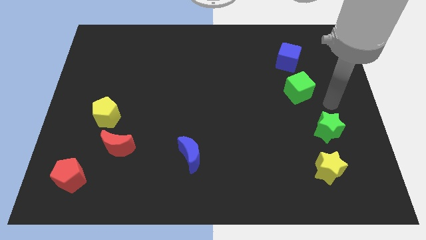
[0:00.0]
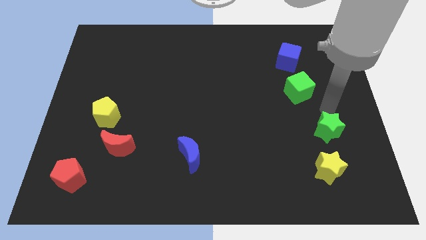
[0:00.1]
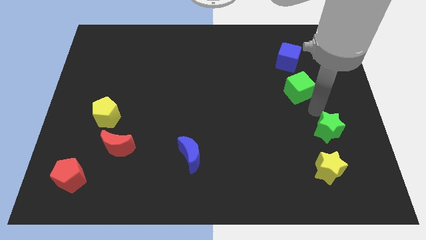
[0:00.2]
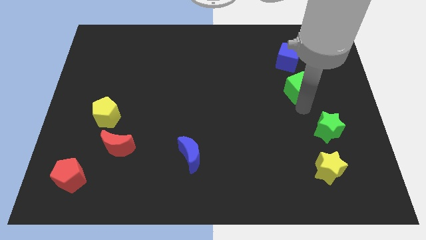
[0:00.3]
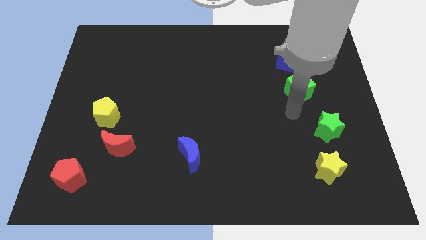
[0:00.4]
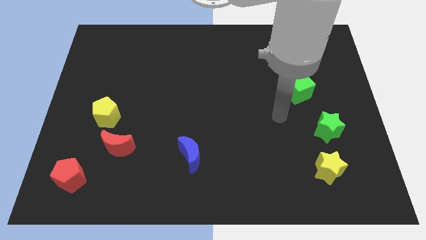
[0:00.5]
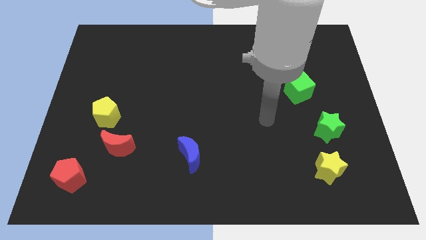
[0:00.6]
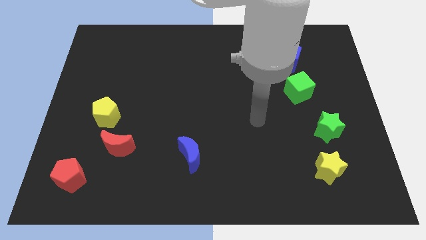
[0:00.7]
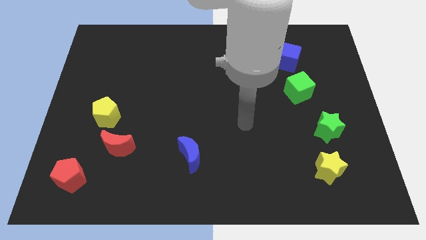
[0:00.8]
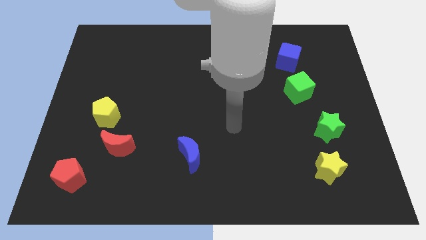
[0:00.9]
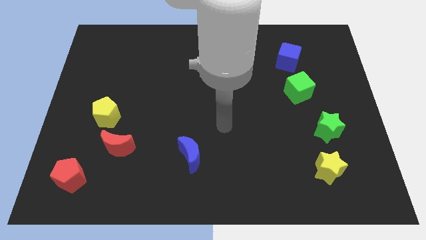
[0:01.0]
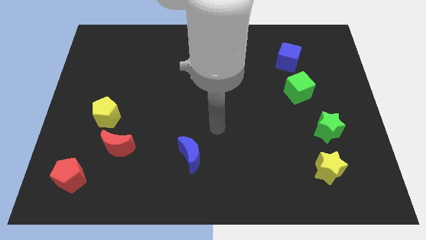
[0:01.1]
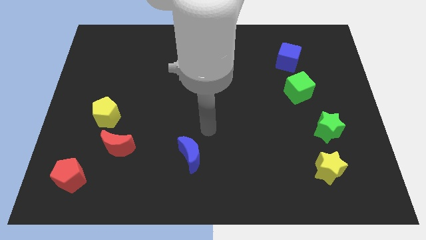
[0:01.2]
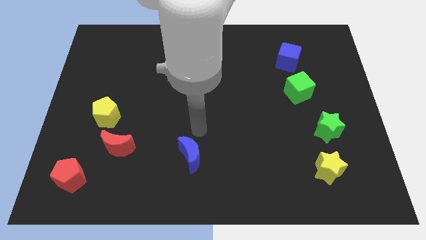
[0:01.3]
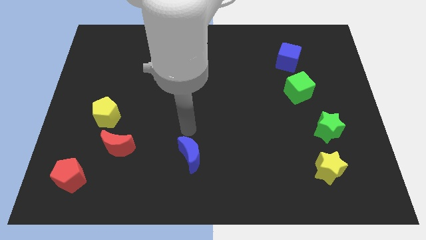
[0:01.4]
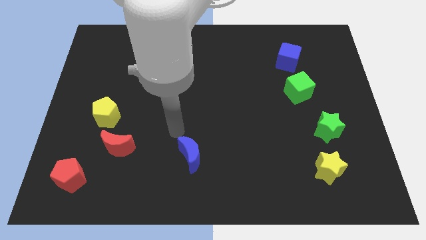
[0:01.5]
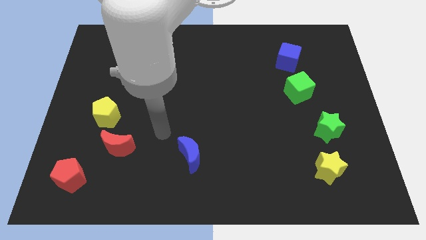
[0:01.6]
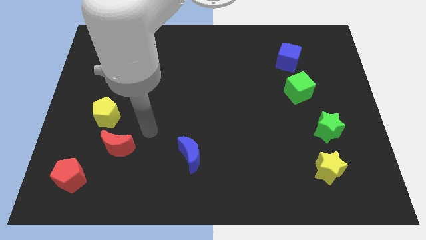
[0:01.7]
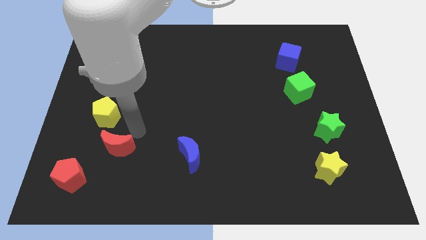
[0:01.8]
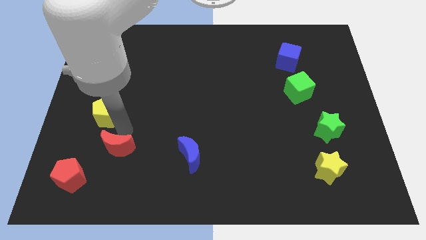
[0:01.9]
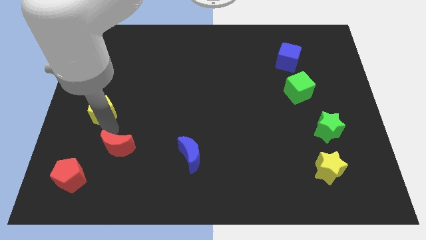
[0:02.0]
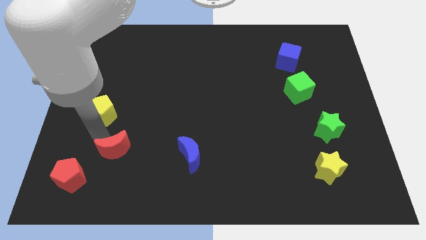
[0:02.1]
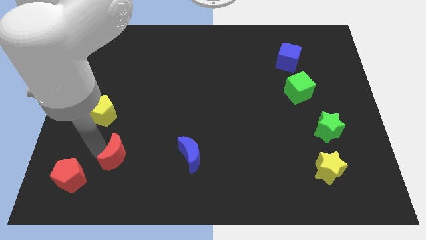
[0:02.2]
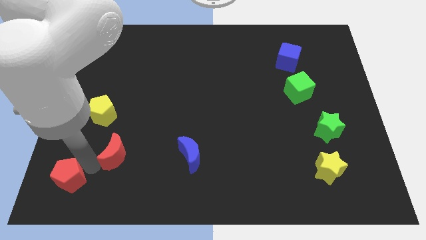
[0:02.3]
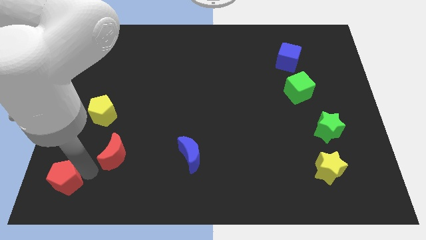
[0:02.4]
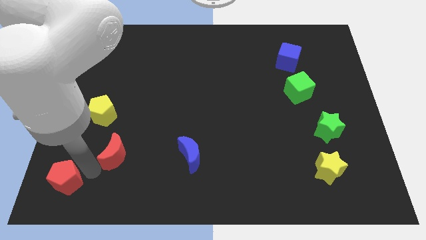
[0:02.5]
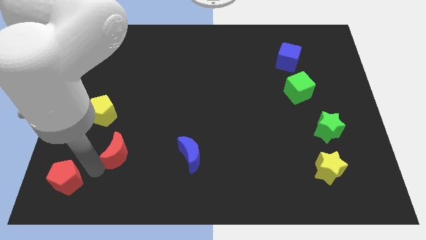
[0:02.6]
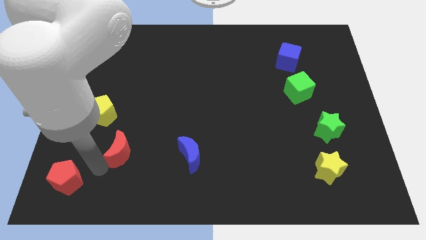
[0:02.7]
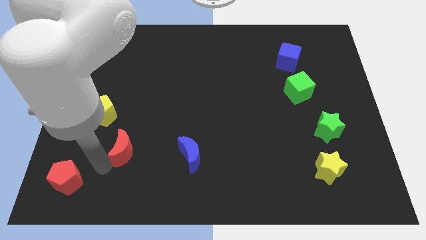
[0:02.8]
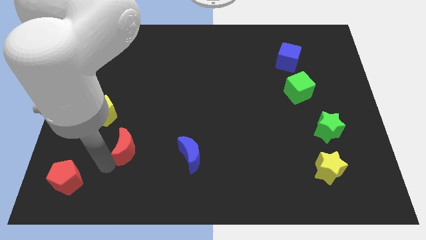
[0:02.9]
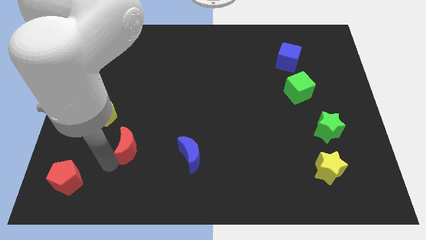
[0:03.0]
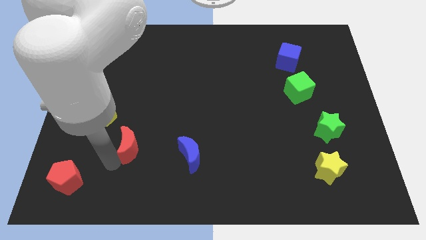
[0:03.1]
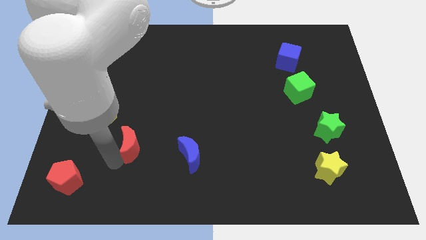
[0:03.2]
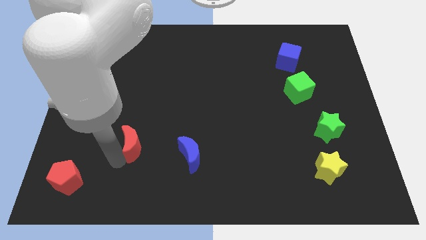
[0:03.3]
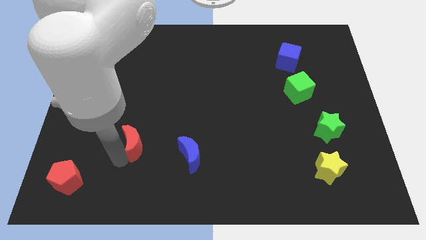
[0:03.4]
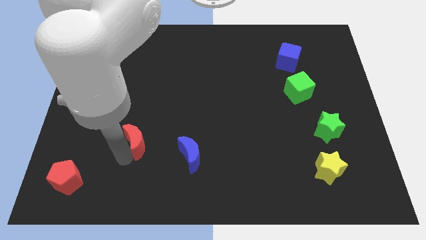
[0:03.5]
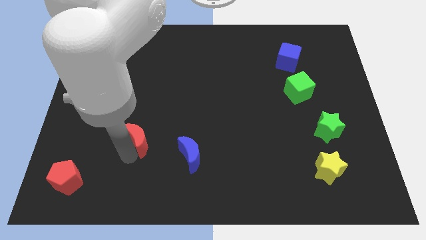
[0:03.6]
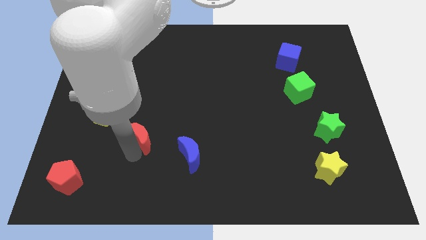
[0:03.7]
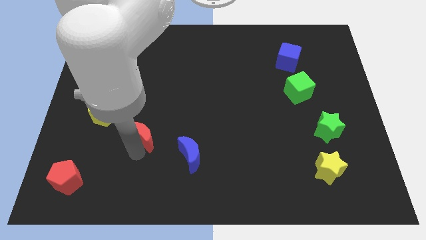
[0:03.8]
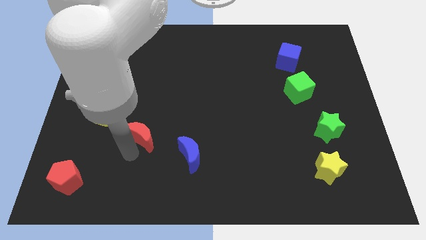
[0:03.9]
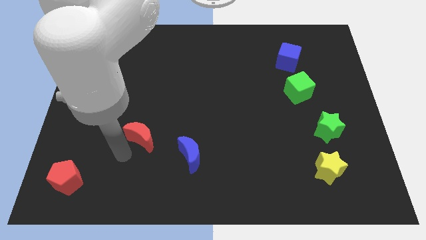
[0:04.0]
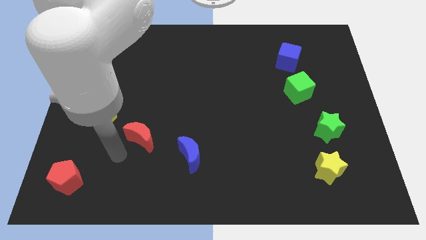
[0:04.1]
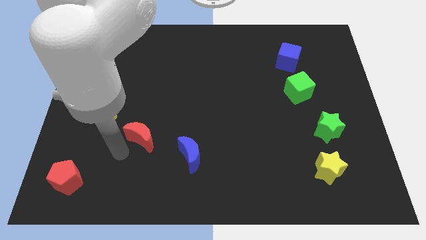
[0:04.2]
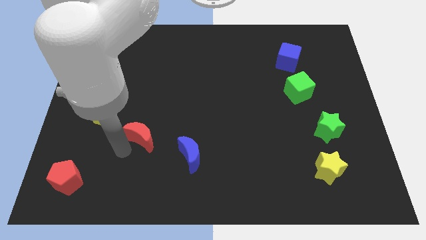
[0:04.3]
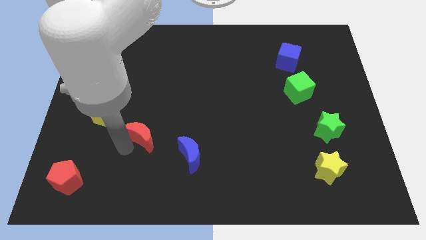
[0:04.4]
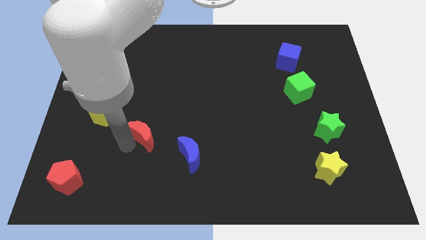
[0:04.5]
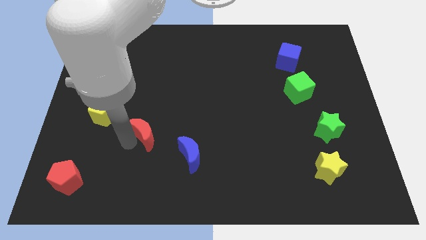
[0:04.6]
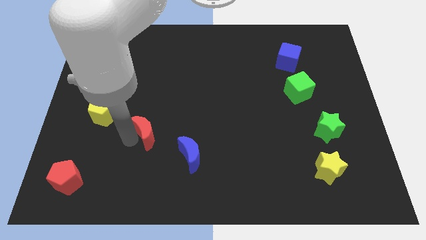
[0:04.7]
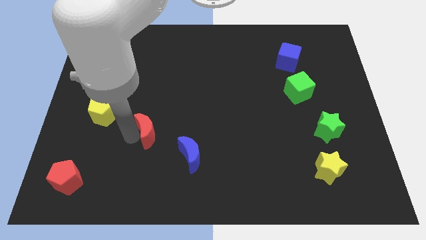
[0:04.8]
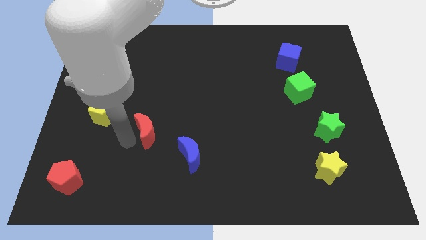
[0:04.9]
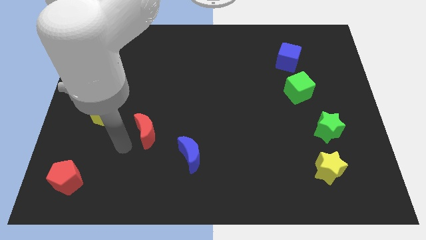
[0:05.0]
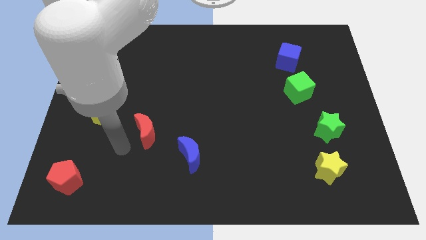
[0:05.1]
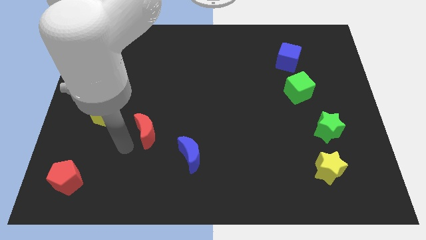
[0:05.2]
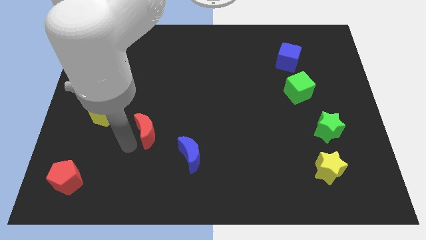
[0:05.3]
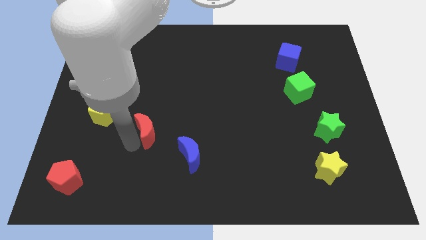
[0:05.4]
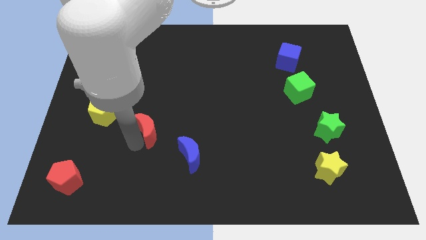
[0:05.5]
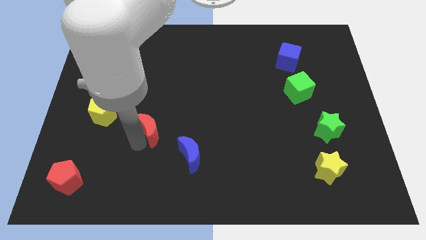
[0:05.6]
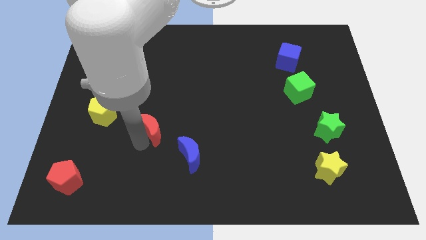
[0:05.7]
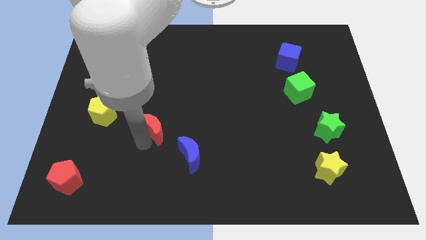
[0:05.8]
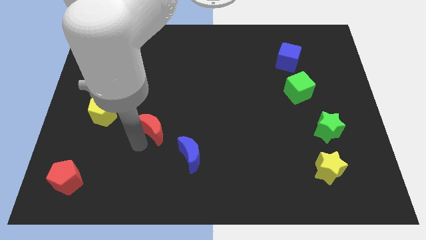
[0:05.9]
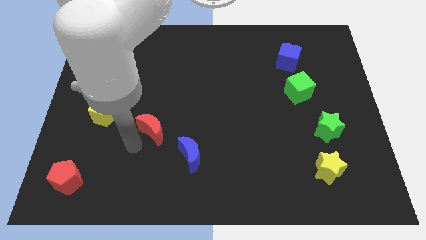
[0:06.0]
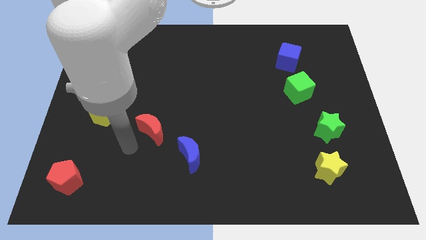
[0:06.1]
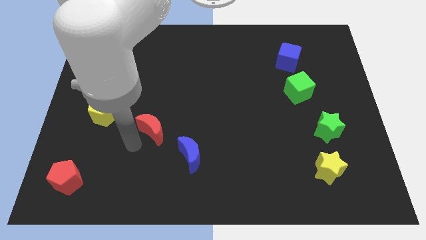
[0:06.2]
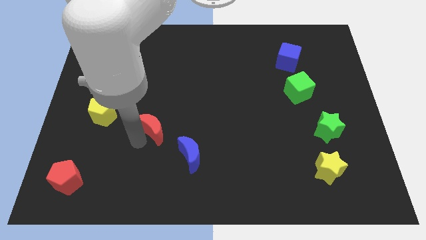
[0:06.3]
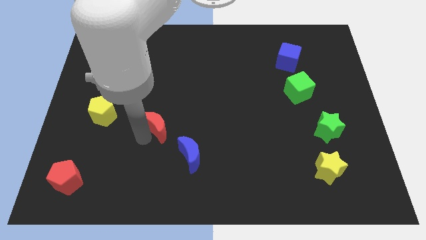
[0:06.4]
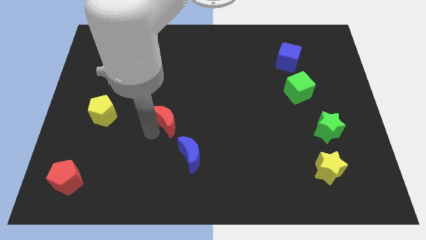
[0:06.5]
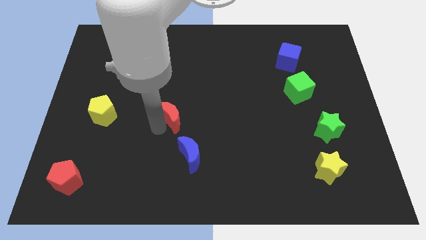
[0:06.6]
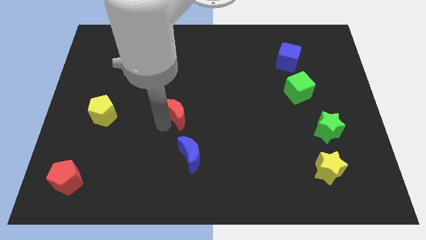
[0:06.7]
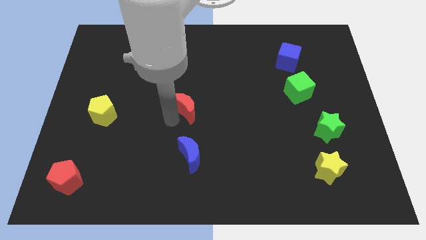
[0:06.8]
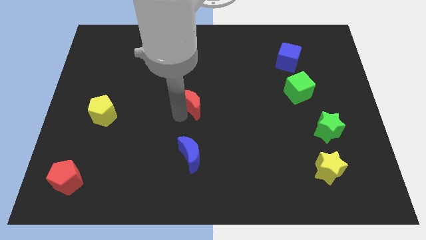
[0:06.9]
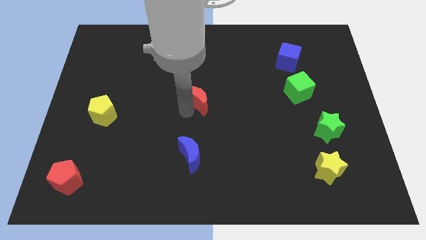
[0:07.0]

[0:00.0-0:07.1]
slide the red moon up and then to the right

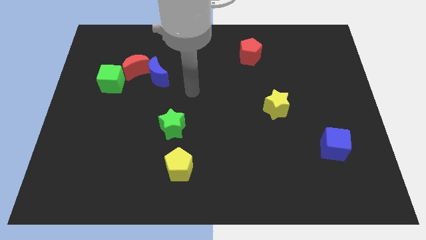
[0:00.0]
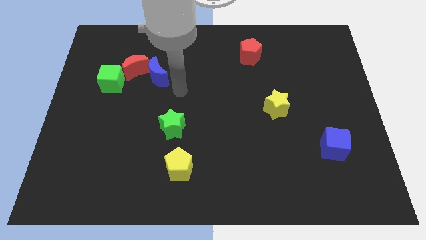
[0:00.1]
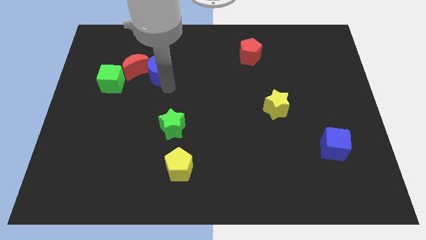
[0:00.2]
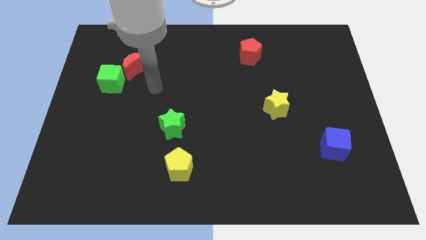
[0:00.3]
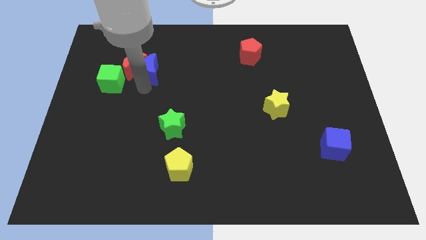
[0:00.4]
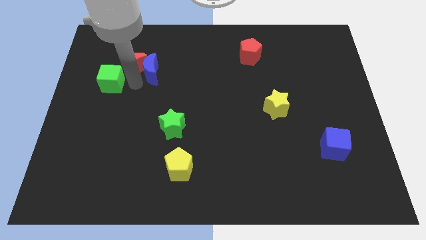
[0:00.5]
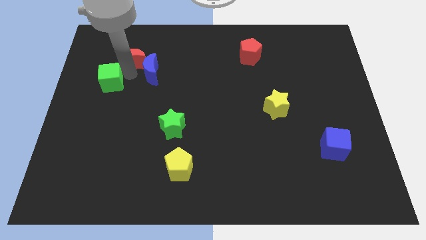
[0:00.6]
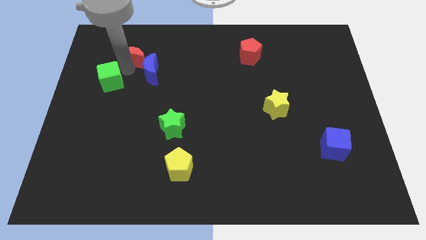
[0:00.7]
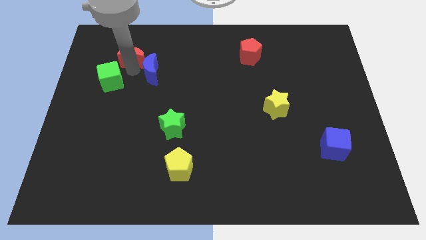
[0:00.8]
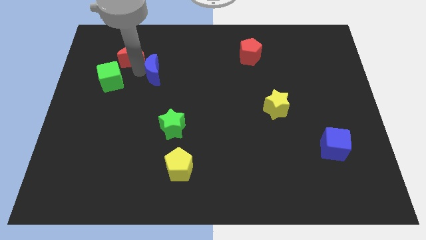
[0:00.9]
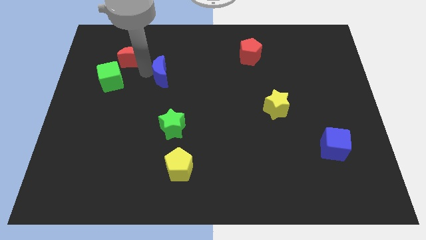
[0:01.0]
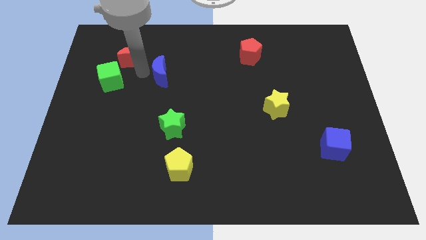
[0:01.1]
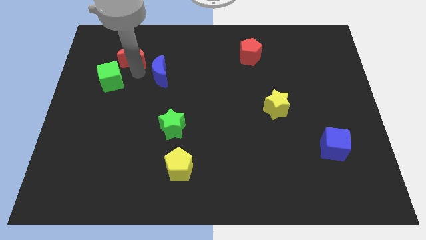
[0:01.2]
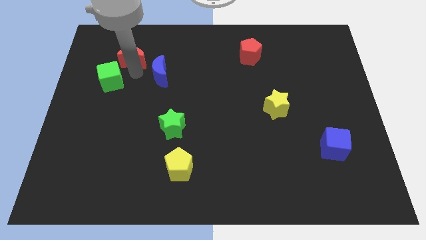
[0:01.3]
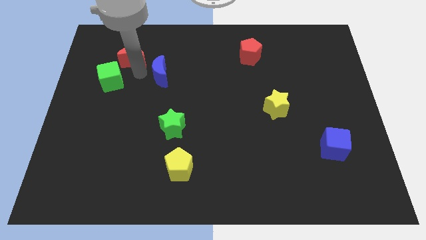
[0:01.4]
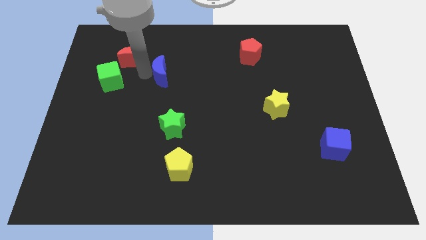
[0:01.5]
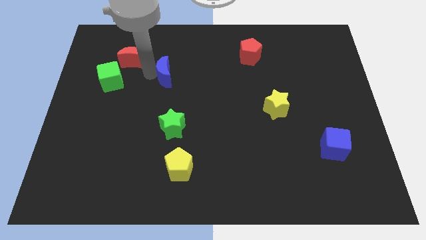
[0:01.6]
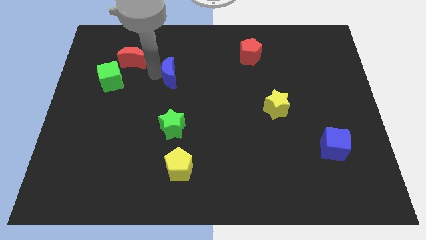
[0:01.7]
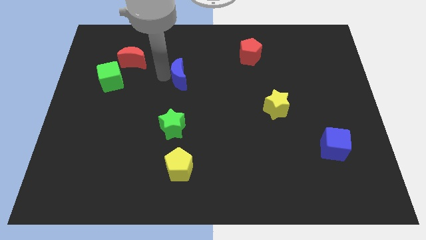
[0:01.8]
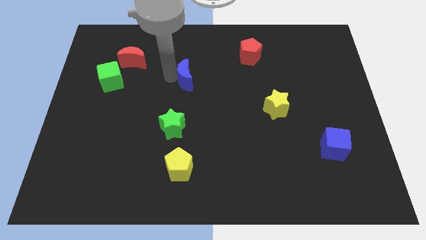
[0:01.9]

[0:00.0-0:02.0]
slide the blue moon a little bit right
